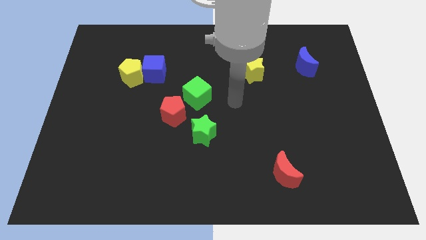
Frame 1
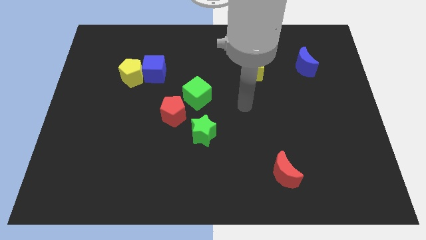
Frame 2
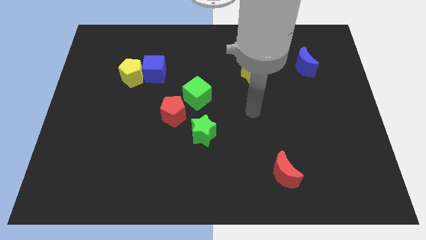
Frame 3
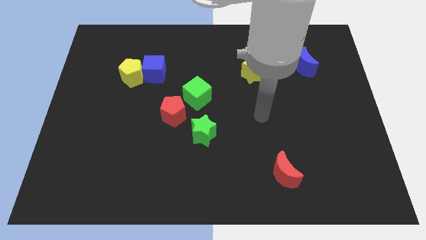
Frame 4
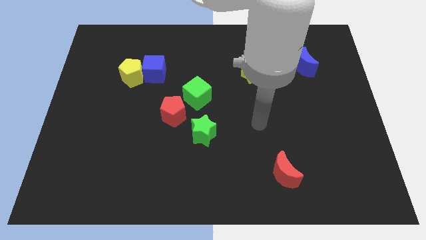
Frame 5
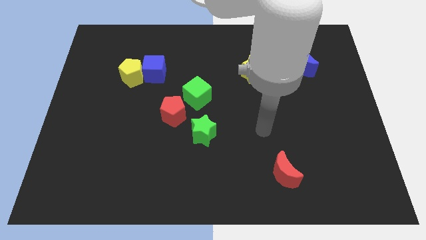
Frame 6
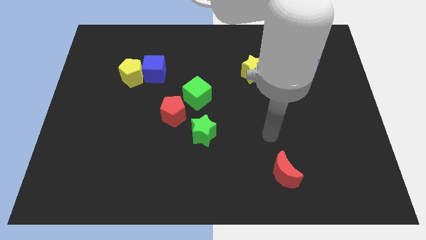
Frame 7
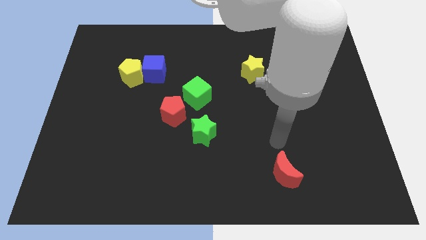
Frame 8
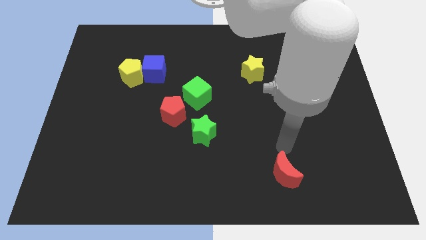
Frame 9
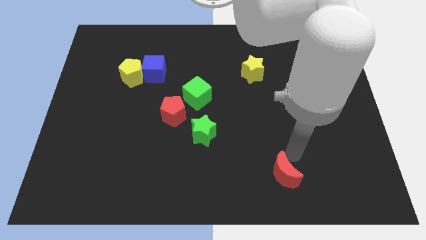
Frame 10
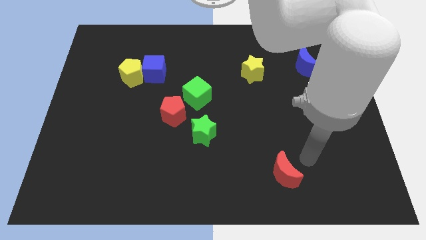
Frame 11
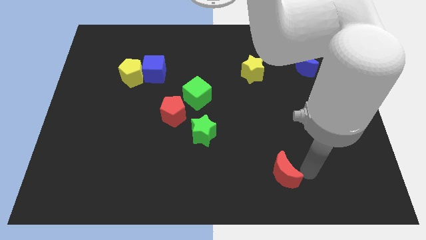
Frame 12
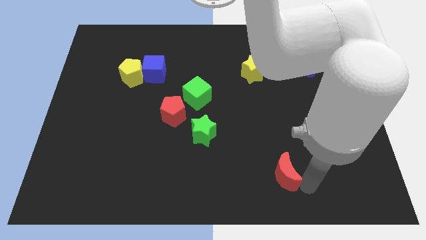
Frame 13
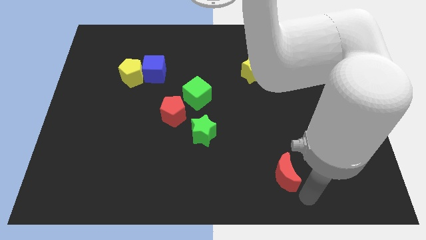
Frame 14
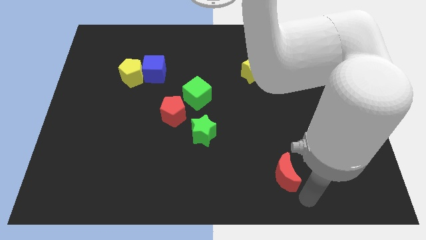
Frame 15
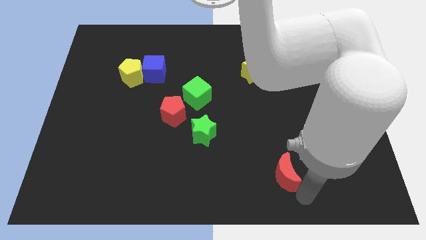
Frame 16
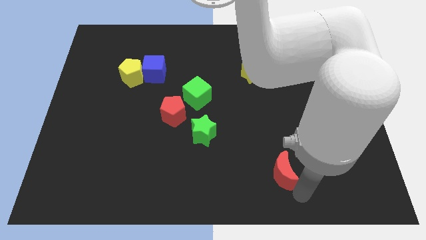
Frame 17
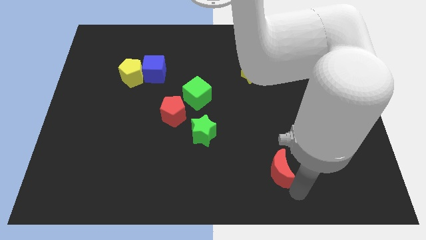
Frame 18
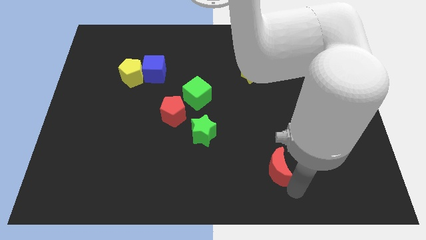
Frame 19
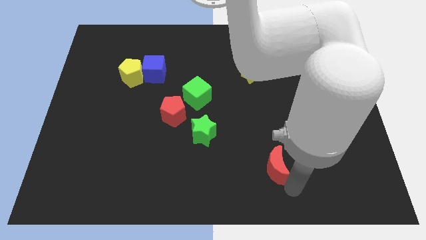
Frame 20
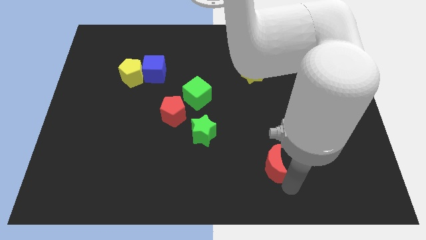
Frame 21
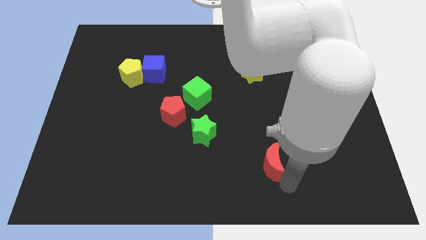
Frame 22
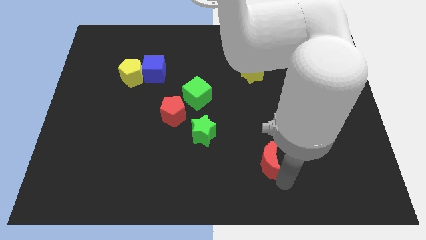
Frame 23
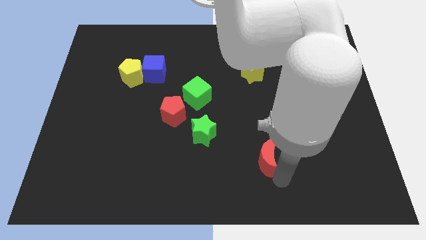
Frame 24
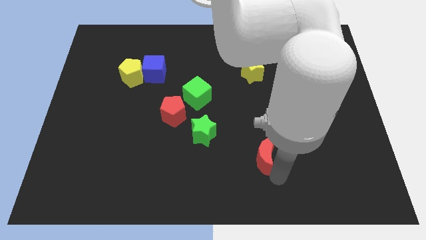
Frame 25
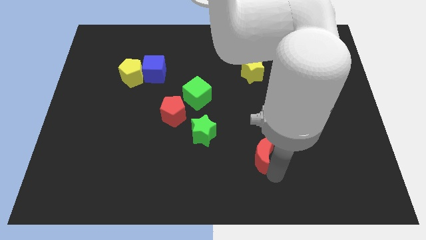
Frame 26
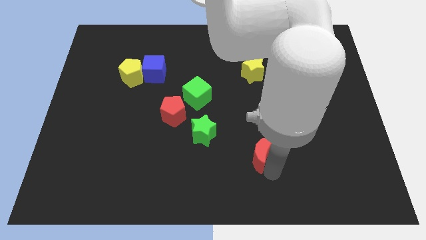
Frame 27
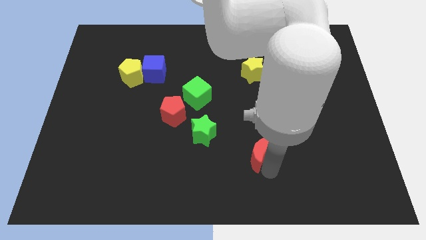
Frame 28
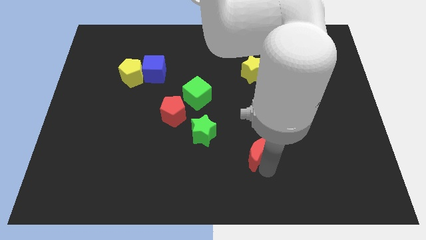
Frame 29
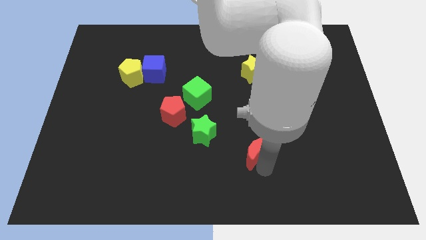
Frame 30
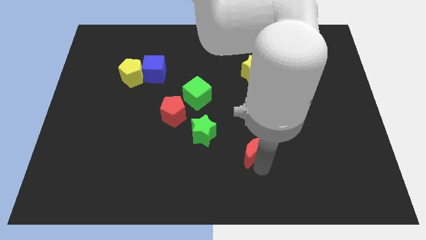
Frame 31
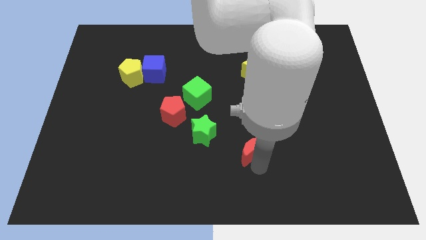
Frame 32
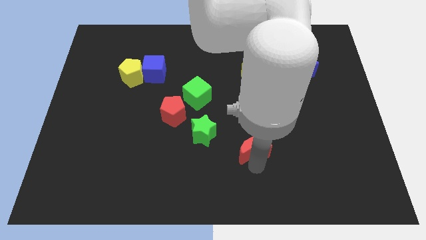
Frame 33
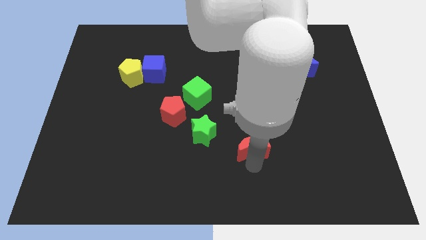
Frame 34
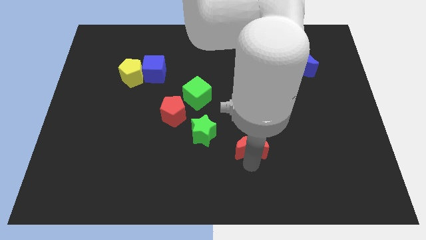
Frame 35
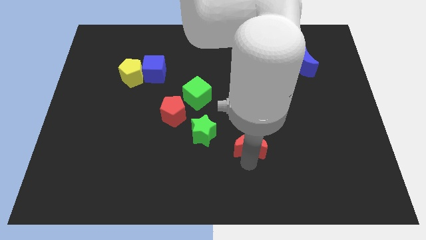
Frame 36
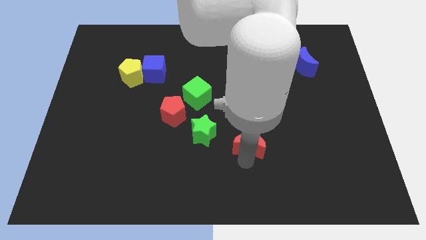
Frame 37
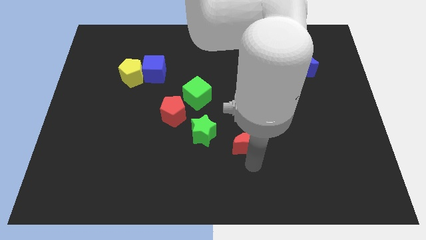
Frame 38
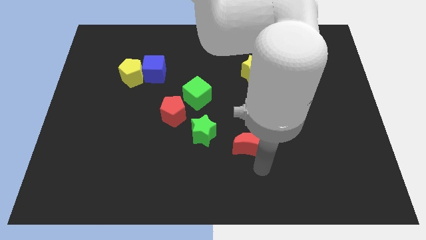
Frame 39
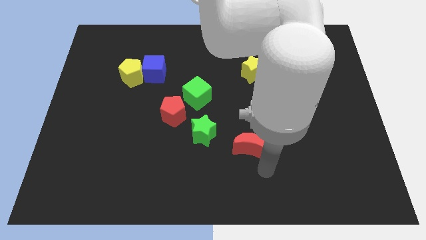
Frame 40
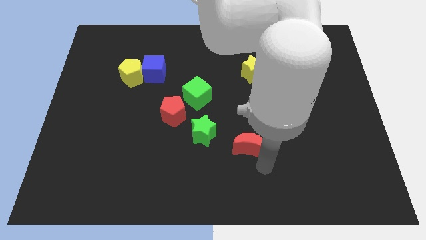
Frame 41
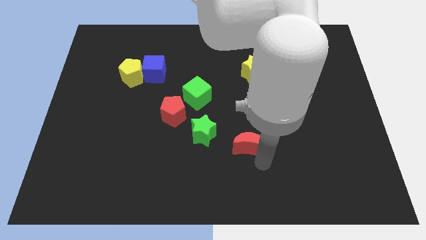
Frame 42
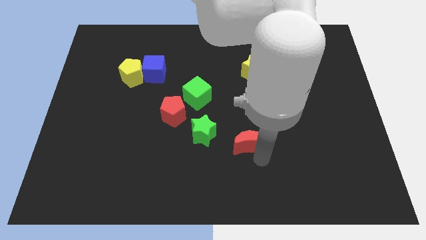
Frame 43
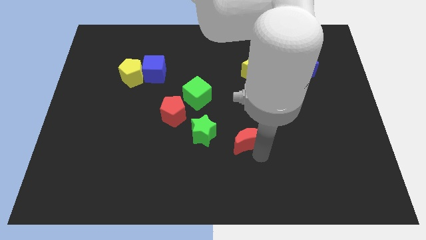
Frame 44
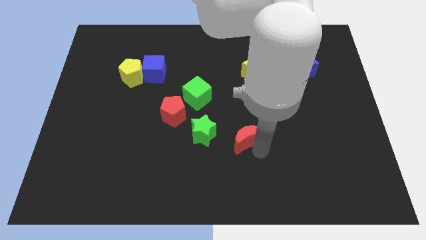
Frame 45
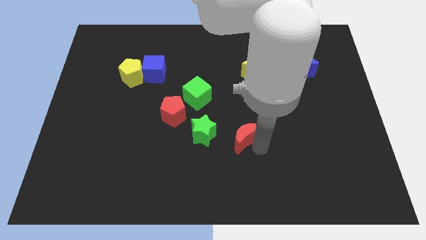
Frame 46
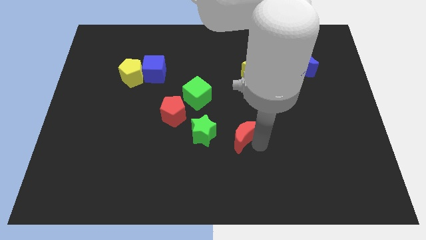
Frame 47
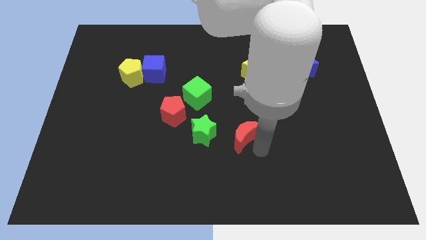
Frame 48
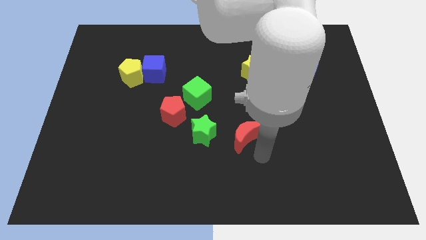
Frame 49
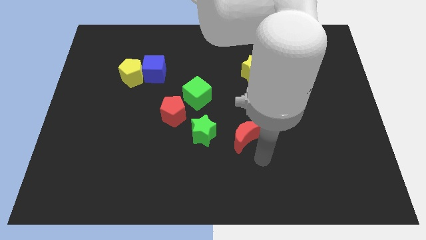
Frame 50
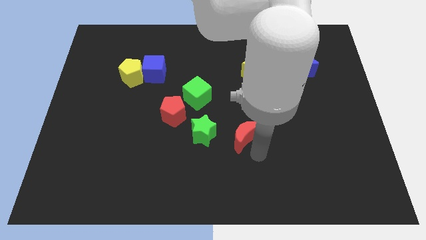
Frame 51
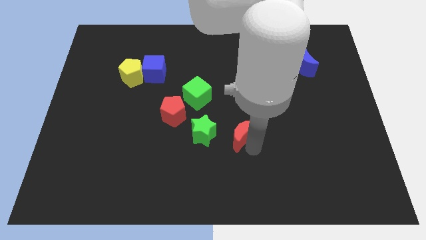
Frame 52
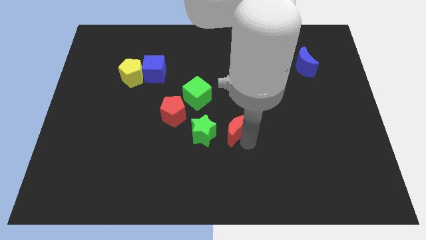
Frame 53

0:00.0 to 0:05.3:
put the red moon to the top right side of the green star

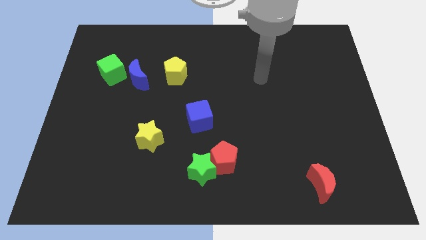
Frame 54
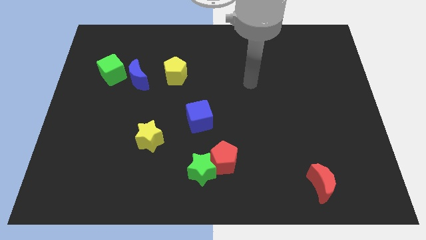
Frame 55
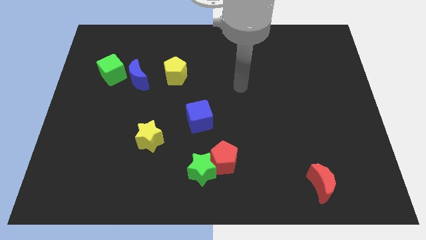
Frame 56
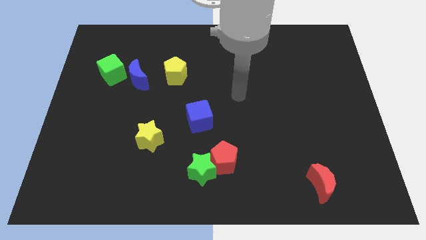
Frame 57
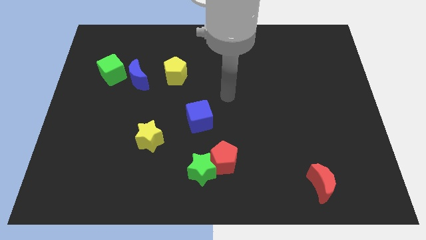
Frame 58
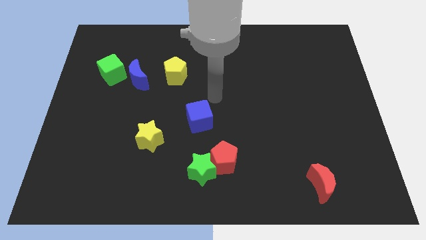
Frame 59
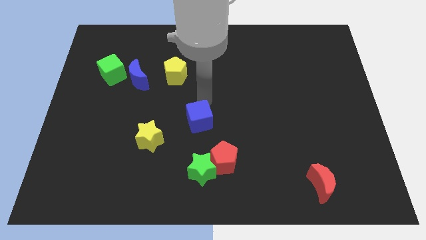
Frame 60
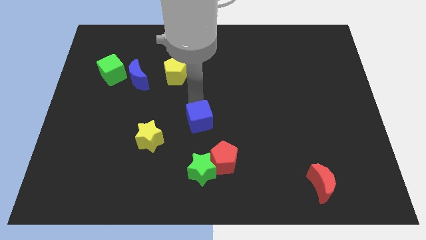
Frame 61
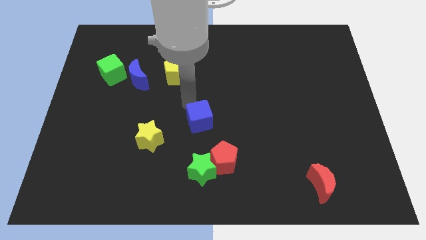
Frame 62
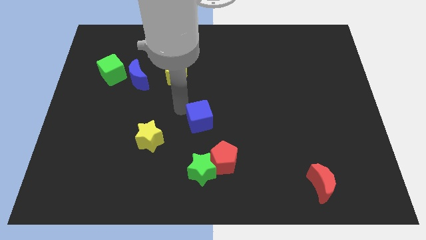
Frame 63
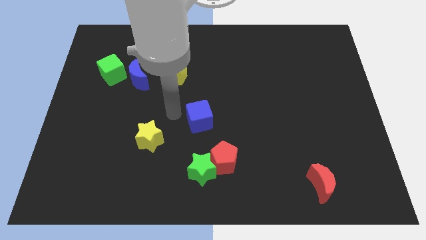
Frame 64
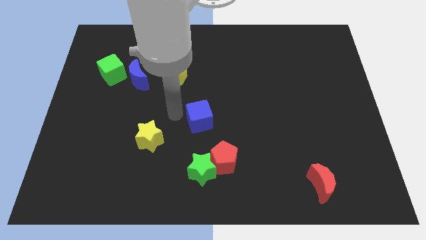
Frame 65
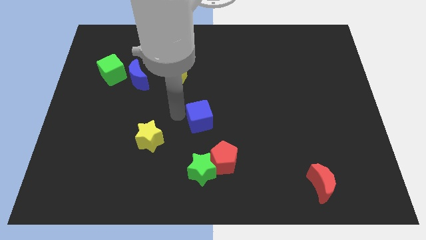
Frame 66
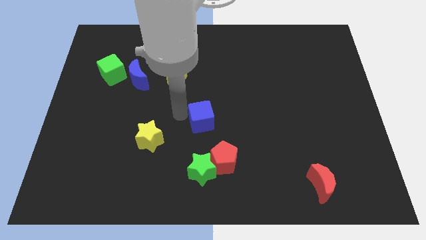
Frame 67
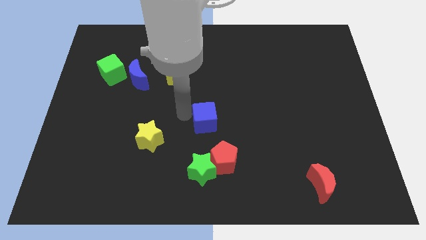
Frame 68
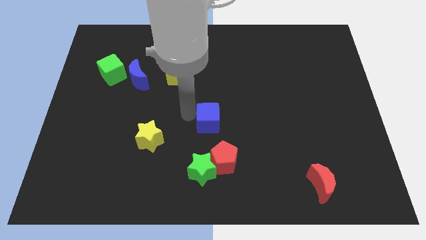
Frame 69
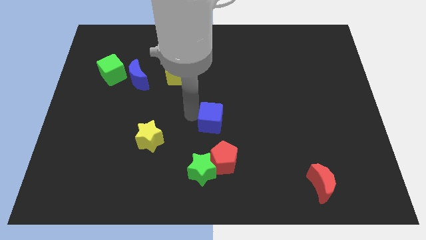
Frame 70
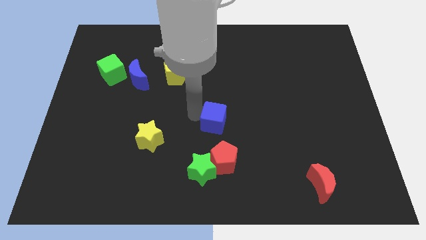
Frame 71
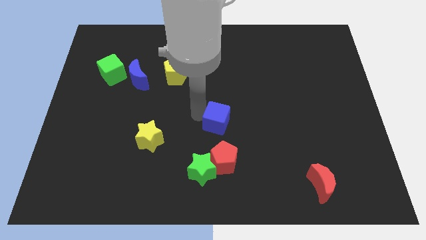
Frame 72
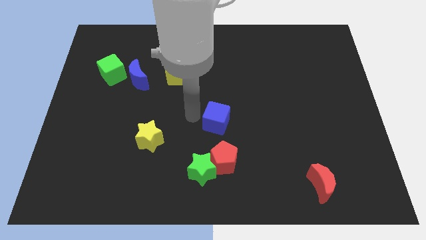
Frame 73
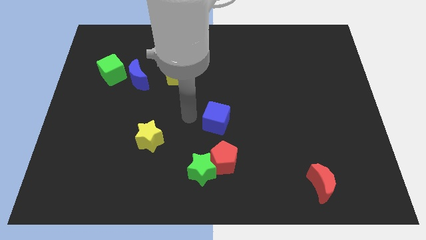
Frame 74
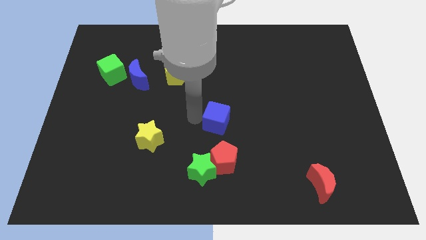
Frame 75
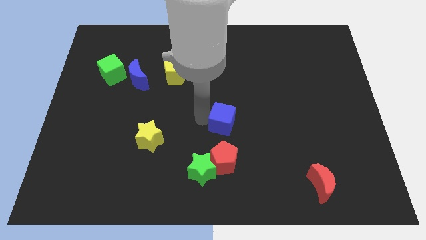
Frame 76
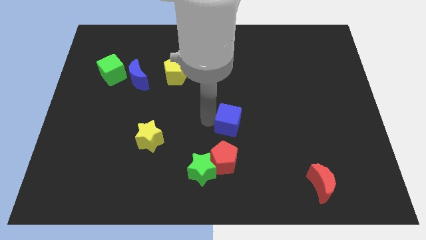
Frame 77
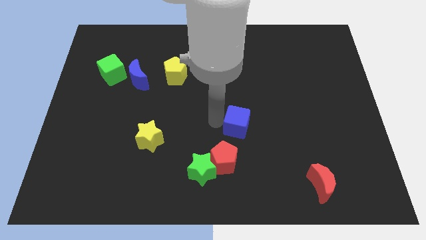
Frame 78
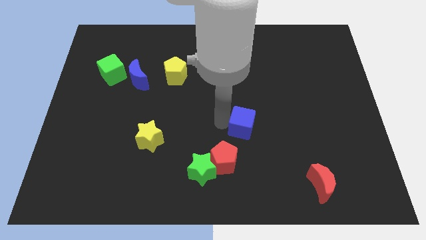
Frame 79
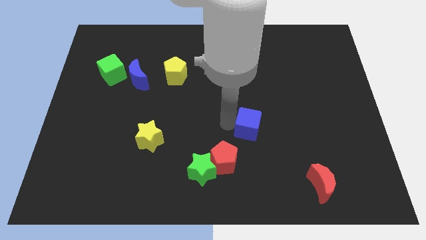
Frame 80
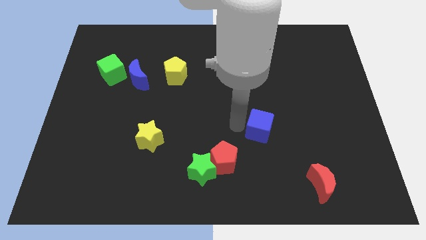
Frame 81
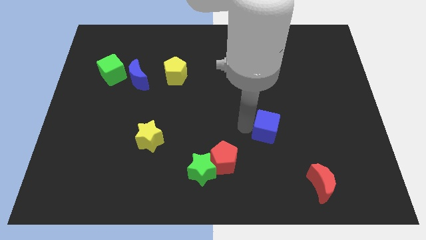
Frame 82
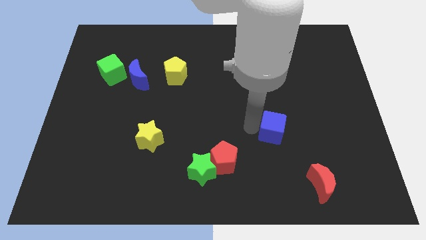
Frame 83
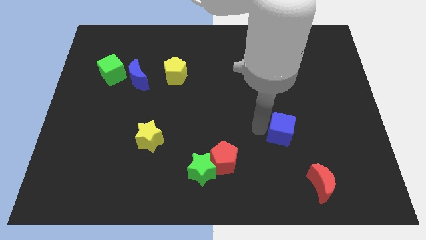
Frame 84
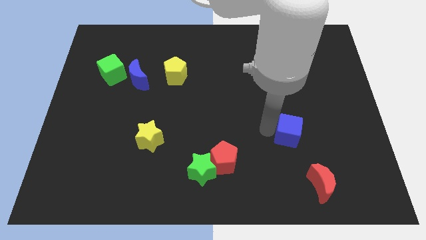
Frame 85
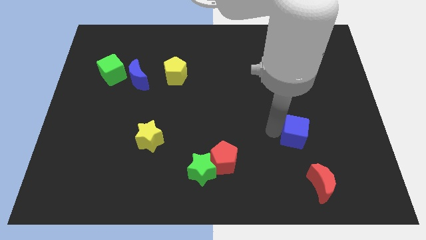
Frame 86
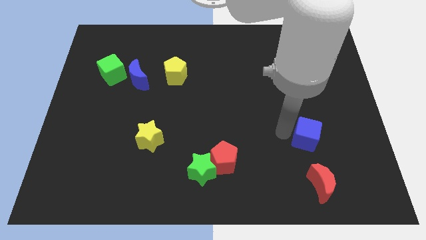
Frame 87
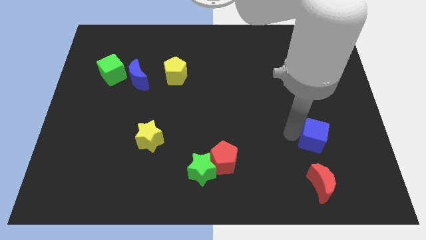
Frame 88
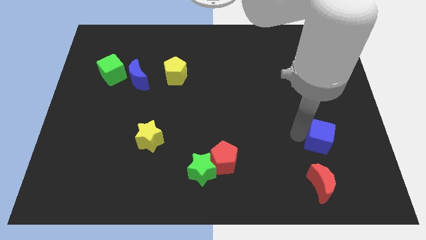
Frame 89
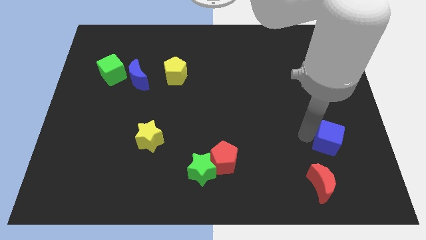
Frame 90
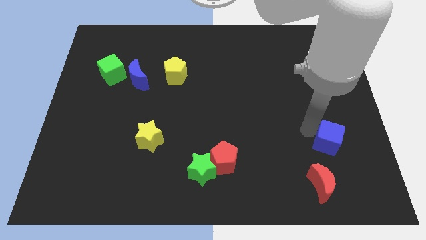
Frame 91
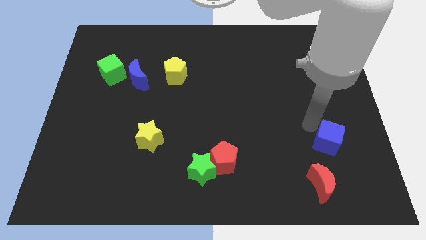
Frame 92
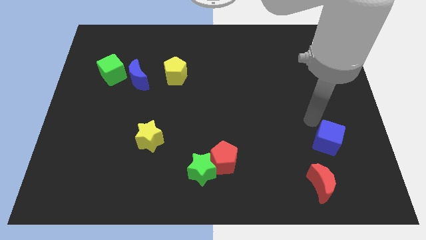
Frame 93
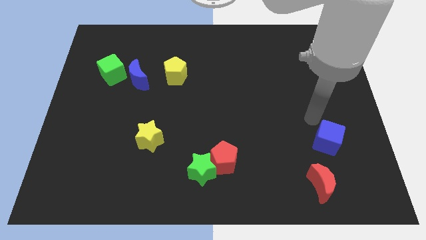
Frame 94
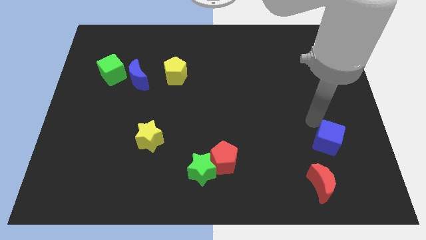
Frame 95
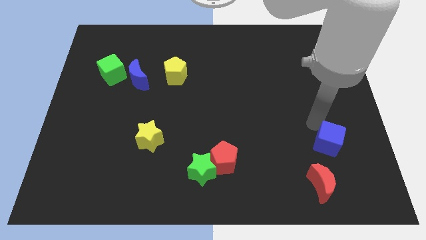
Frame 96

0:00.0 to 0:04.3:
slide the blue cube to the top right side of the red moon
